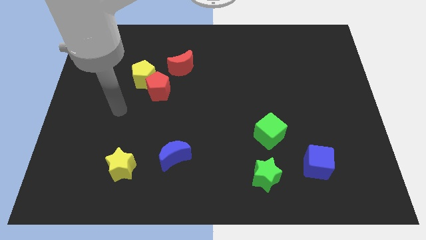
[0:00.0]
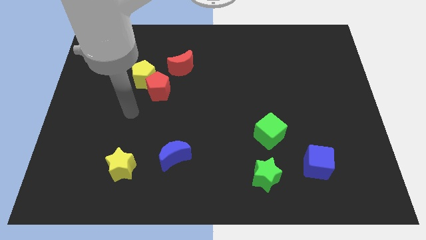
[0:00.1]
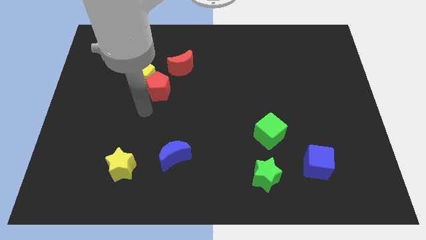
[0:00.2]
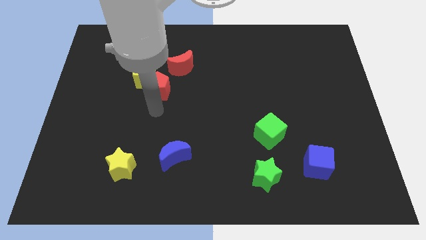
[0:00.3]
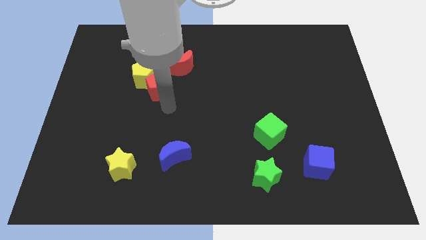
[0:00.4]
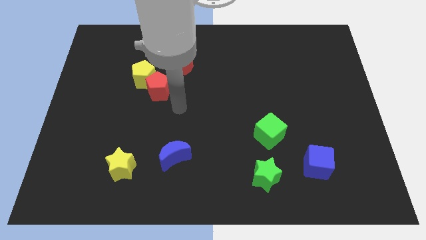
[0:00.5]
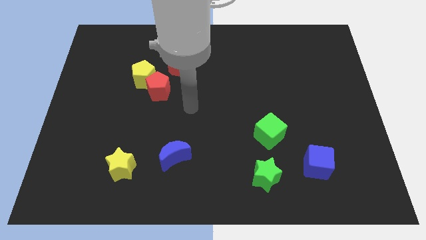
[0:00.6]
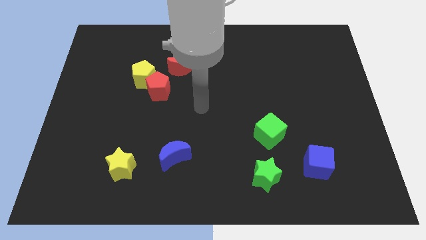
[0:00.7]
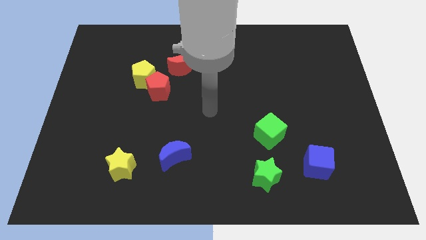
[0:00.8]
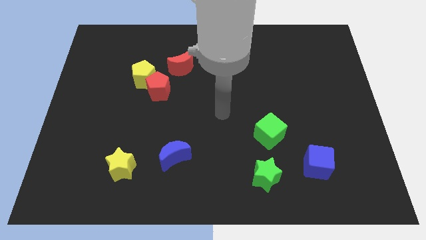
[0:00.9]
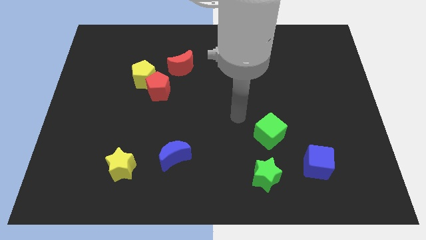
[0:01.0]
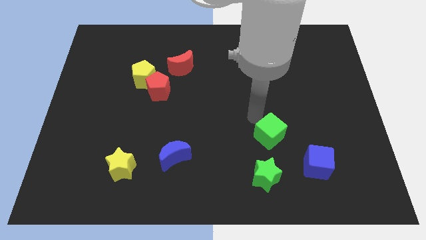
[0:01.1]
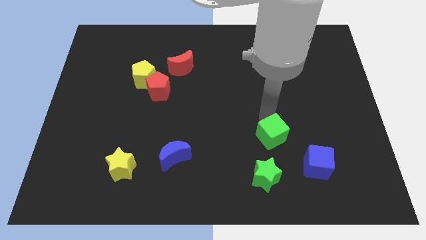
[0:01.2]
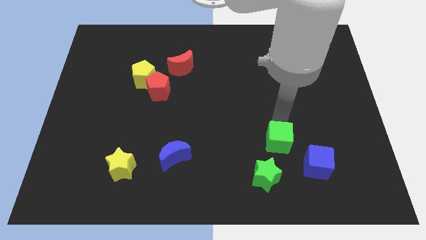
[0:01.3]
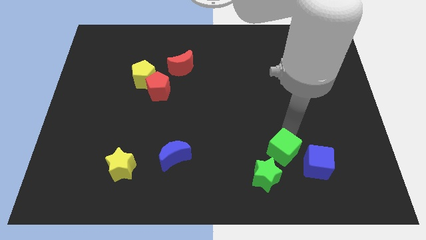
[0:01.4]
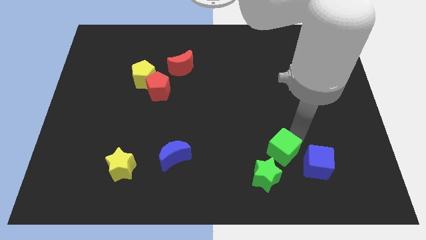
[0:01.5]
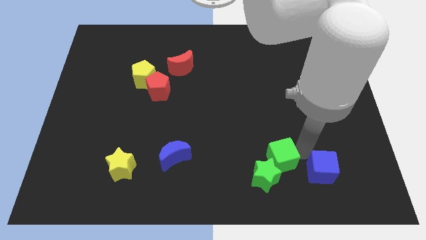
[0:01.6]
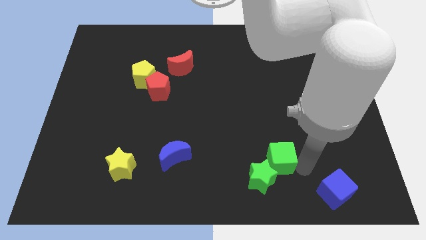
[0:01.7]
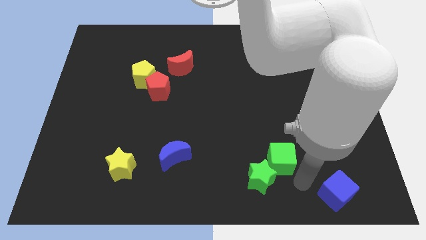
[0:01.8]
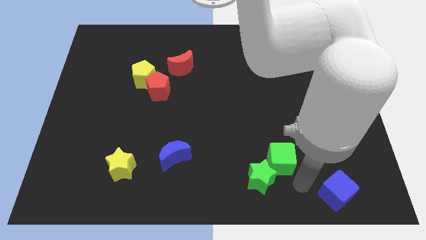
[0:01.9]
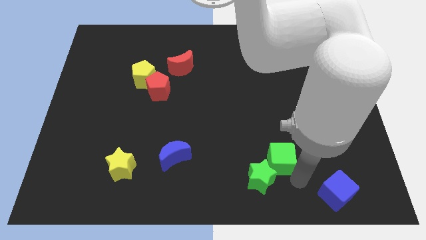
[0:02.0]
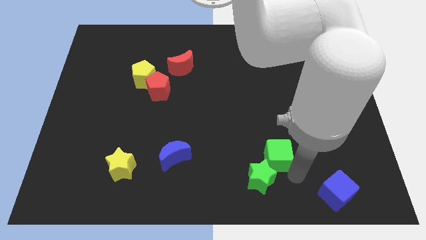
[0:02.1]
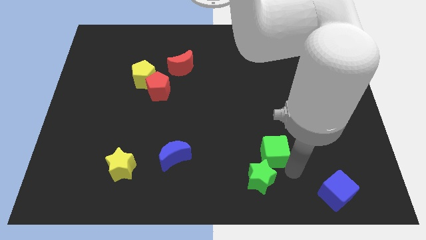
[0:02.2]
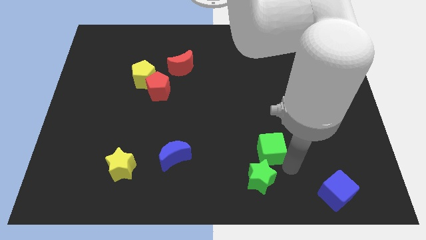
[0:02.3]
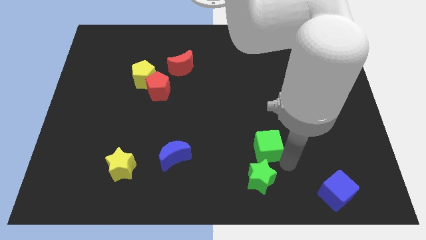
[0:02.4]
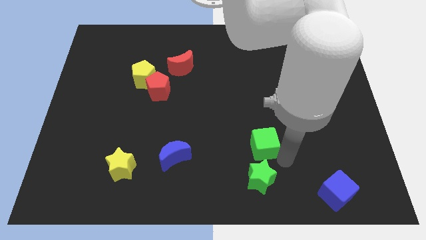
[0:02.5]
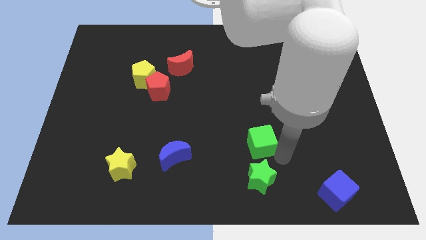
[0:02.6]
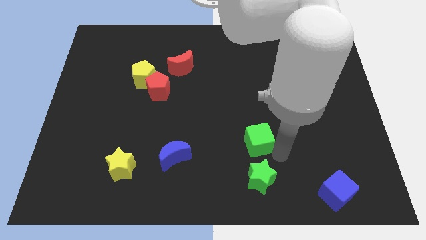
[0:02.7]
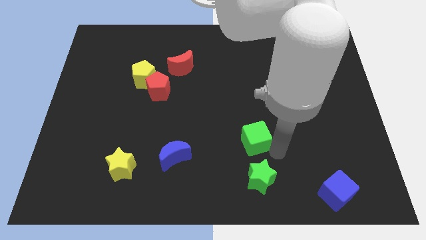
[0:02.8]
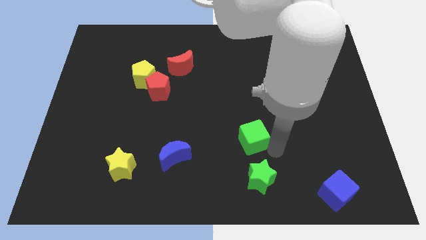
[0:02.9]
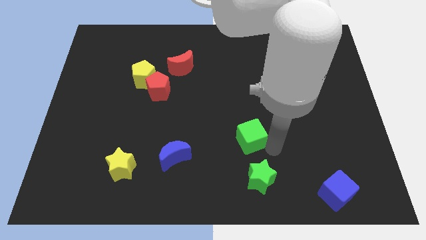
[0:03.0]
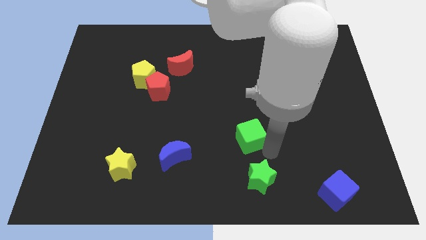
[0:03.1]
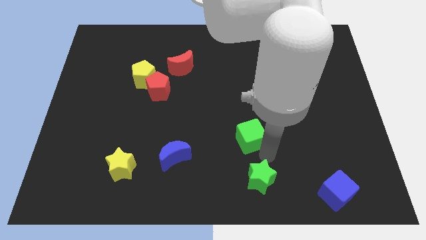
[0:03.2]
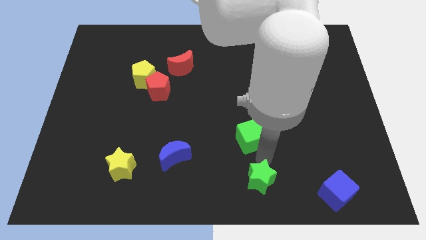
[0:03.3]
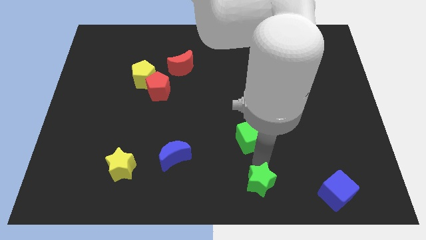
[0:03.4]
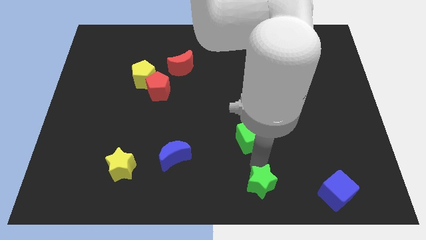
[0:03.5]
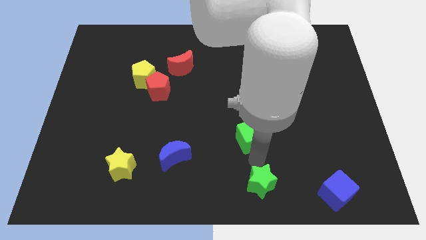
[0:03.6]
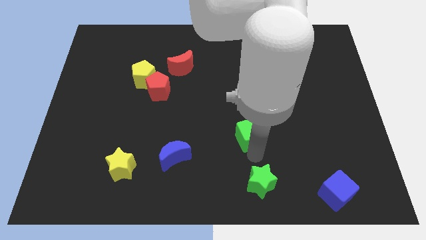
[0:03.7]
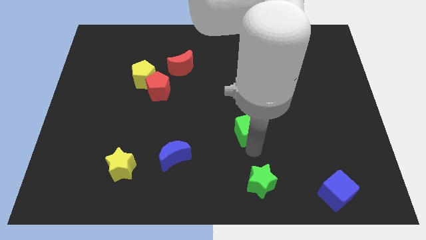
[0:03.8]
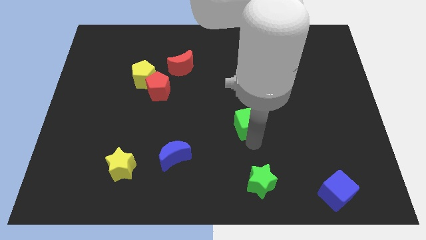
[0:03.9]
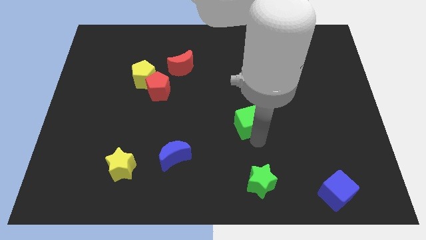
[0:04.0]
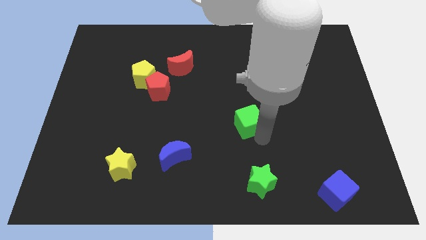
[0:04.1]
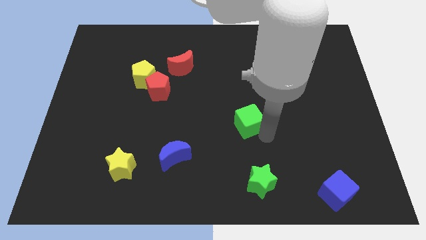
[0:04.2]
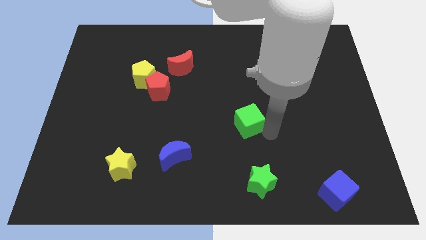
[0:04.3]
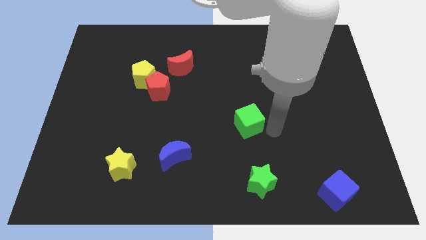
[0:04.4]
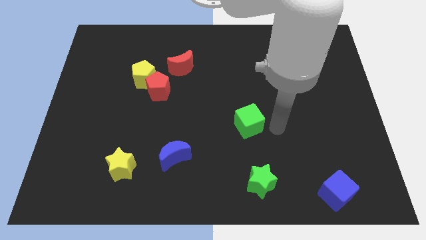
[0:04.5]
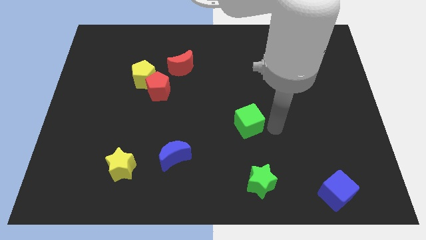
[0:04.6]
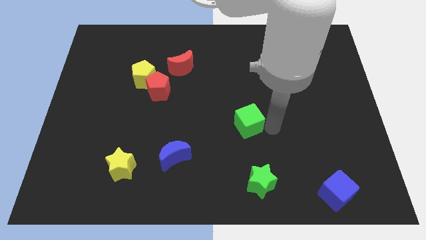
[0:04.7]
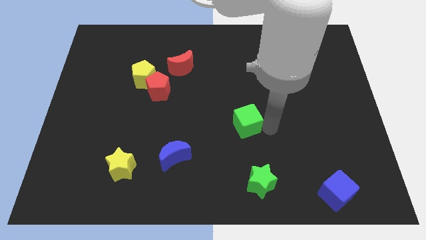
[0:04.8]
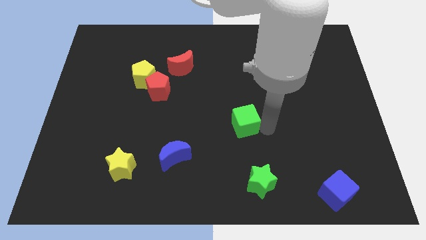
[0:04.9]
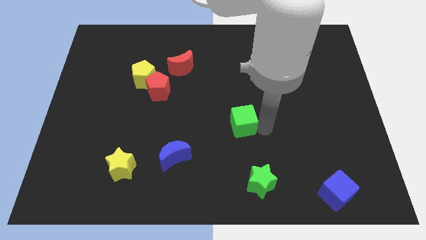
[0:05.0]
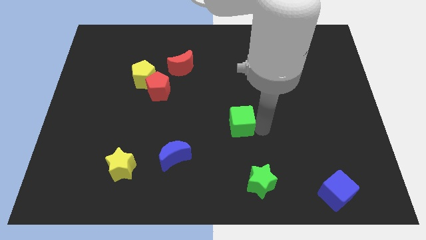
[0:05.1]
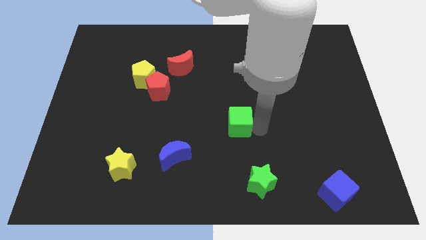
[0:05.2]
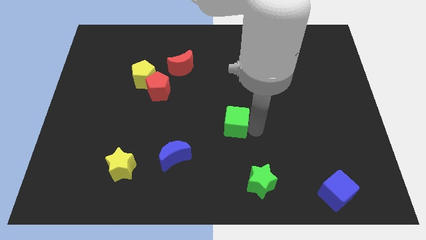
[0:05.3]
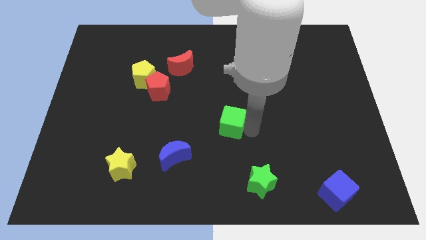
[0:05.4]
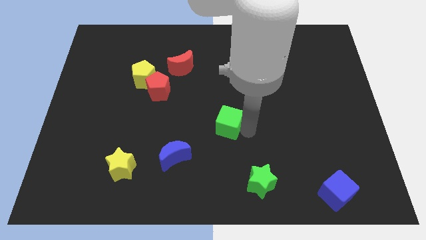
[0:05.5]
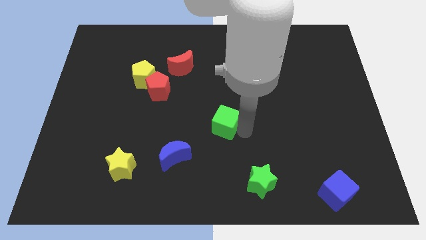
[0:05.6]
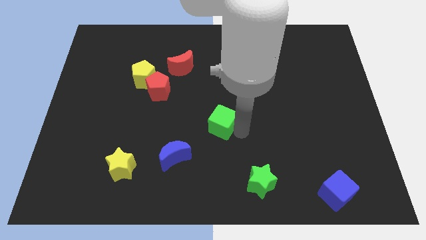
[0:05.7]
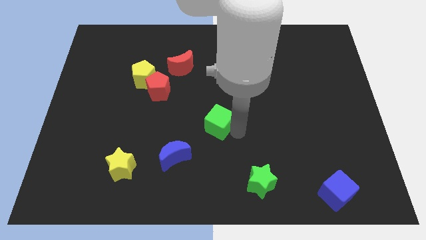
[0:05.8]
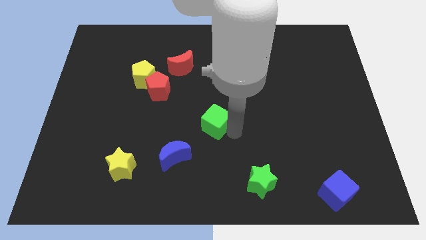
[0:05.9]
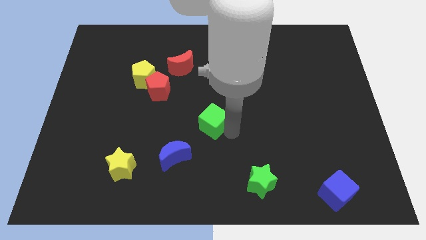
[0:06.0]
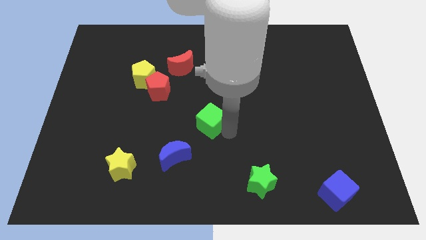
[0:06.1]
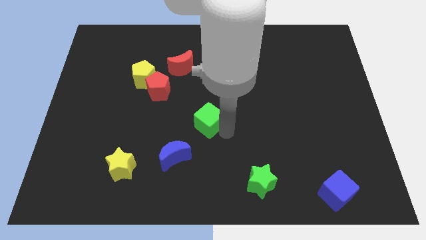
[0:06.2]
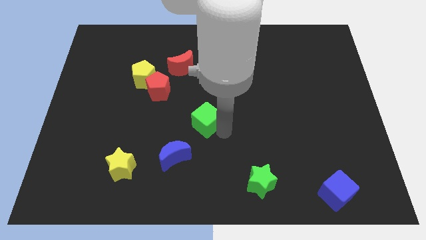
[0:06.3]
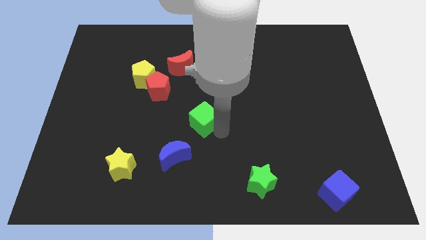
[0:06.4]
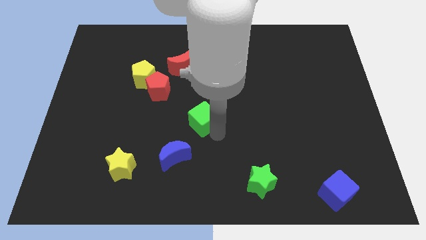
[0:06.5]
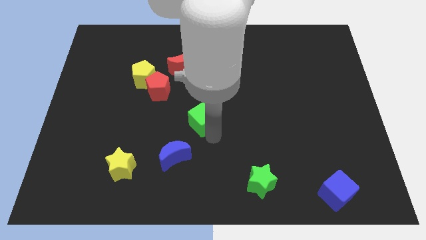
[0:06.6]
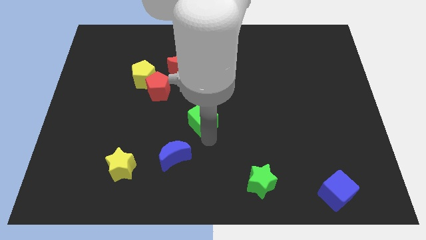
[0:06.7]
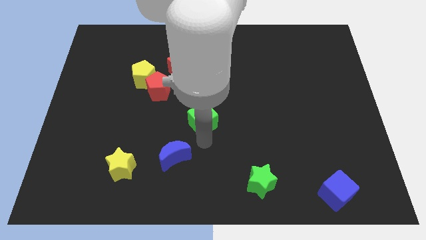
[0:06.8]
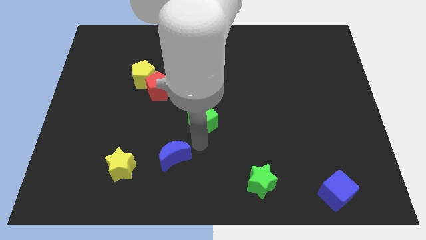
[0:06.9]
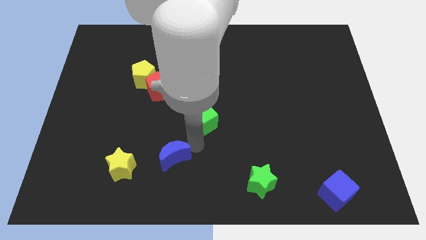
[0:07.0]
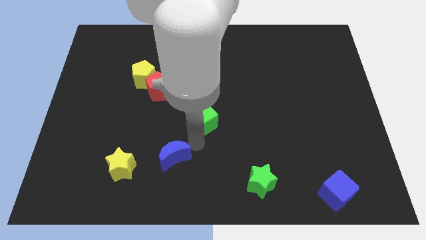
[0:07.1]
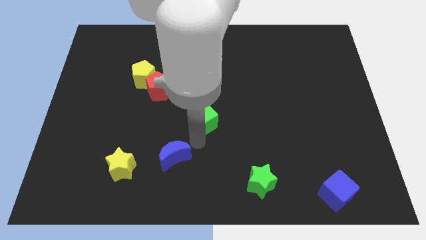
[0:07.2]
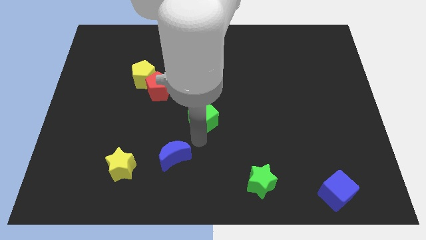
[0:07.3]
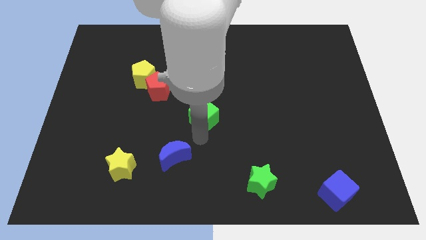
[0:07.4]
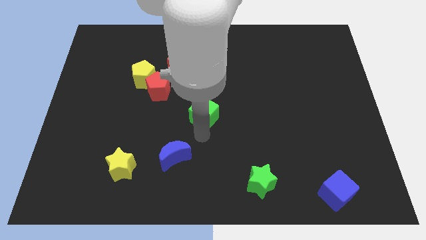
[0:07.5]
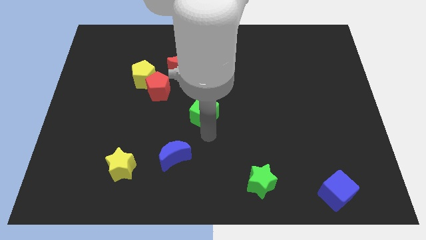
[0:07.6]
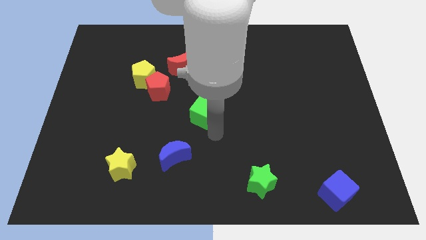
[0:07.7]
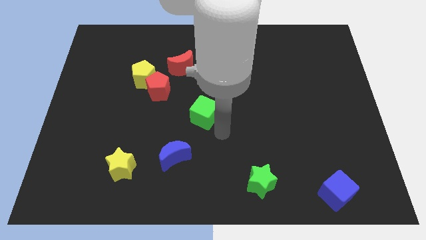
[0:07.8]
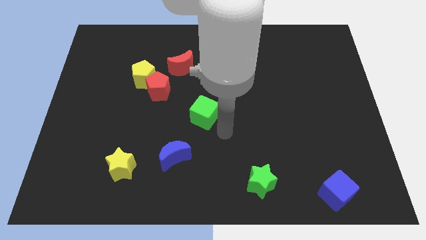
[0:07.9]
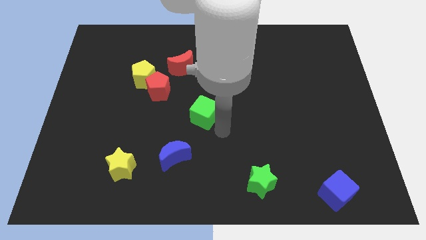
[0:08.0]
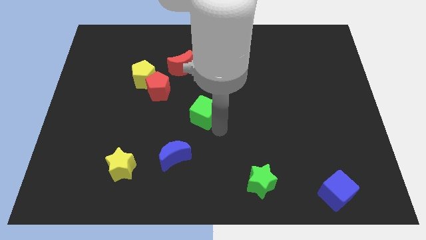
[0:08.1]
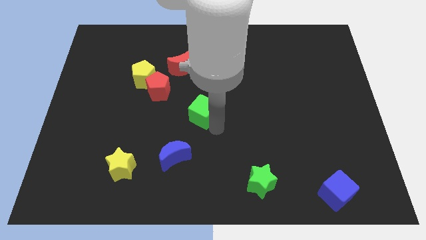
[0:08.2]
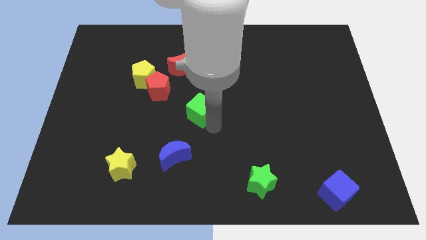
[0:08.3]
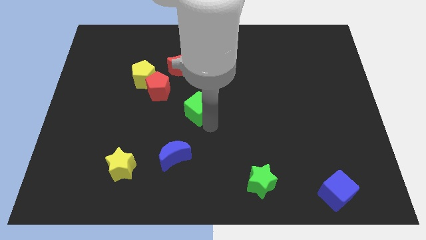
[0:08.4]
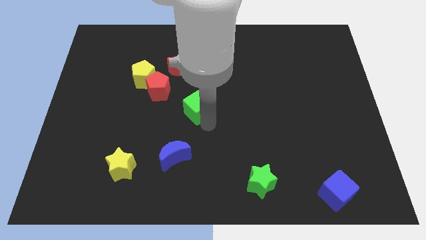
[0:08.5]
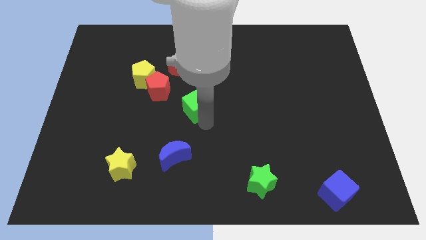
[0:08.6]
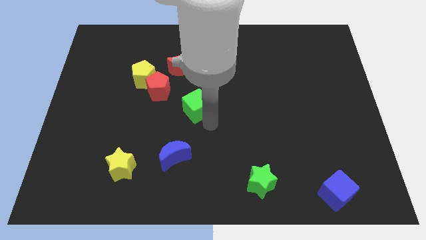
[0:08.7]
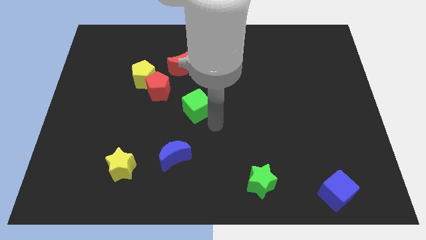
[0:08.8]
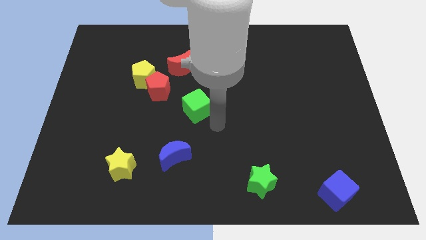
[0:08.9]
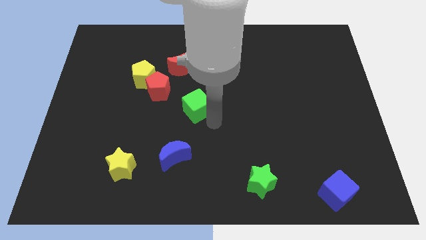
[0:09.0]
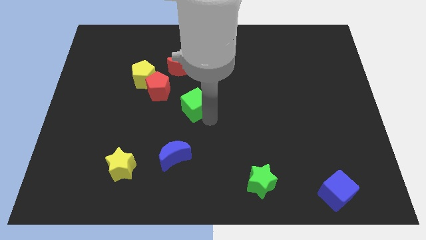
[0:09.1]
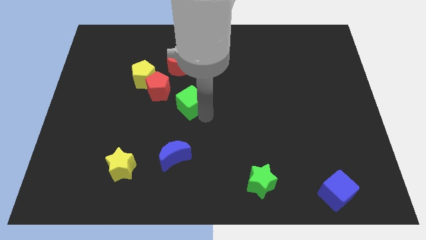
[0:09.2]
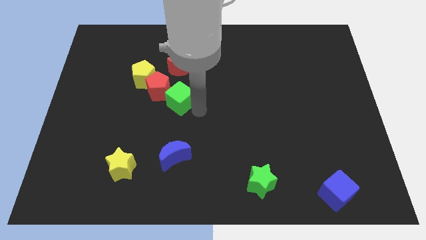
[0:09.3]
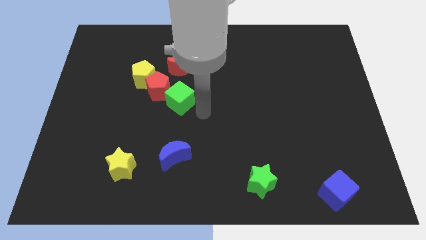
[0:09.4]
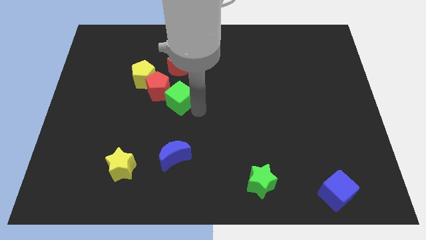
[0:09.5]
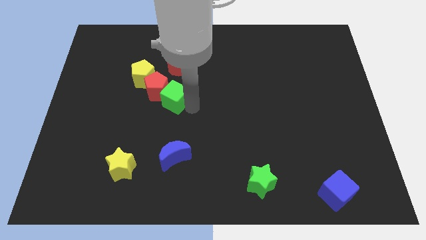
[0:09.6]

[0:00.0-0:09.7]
put the green cube to the red pentagon
